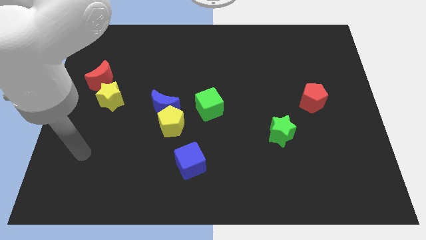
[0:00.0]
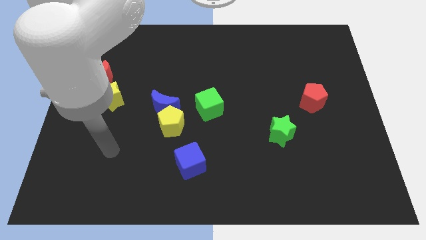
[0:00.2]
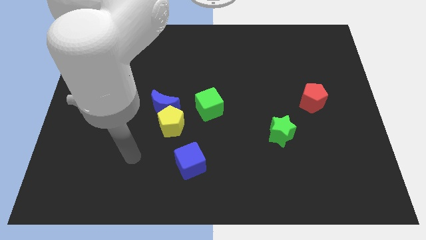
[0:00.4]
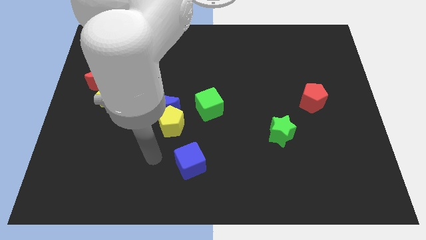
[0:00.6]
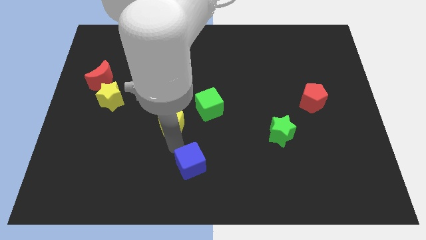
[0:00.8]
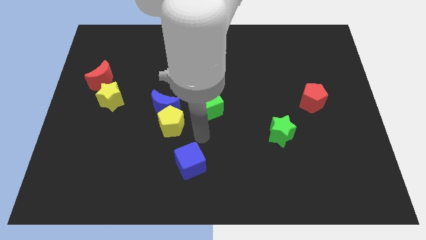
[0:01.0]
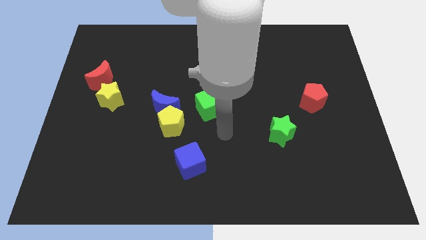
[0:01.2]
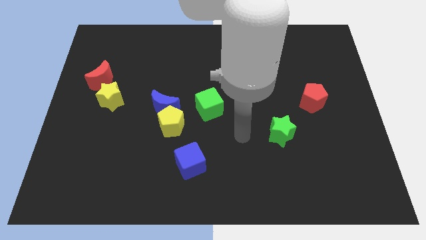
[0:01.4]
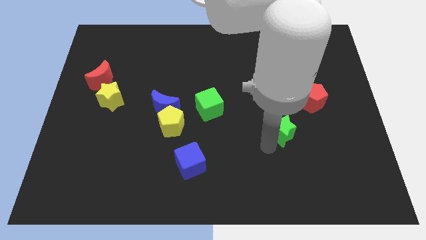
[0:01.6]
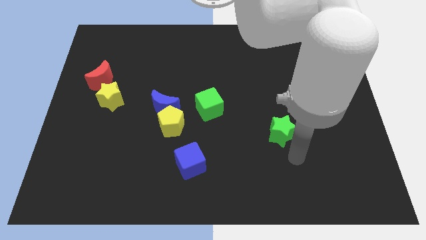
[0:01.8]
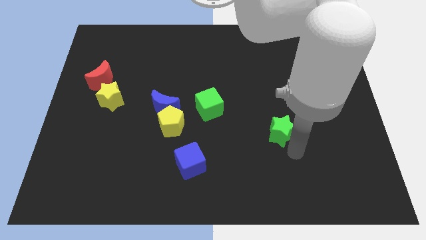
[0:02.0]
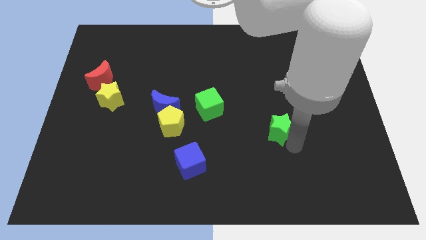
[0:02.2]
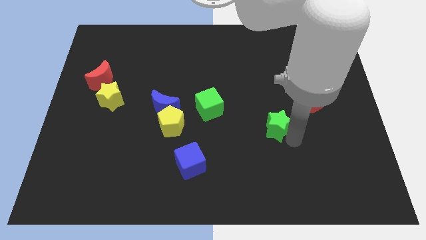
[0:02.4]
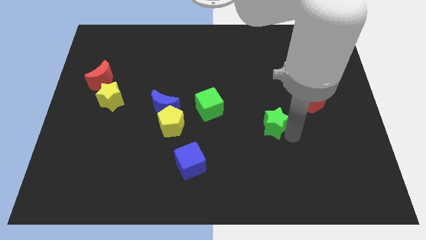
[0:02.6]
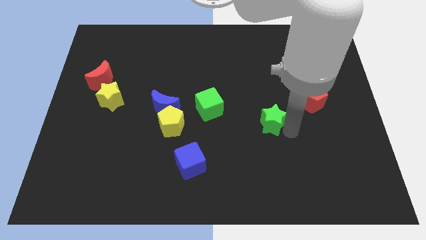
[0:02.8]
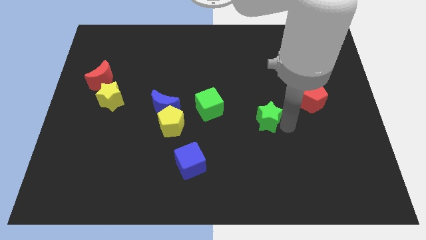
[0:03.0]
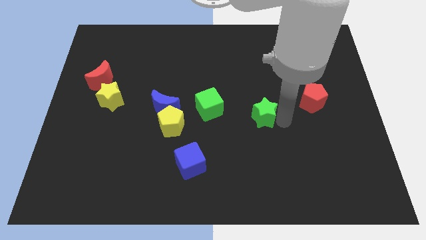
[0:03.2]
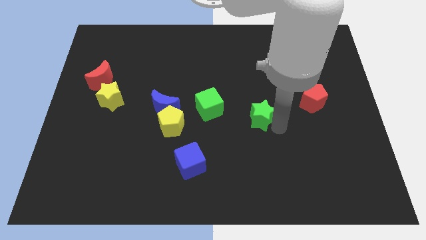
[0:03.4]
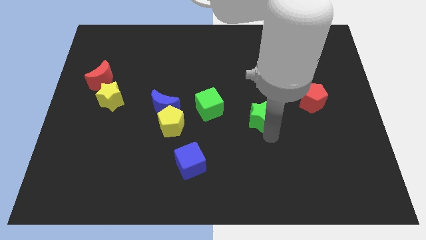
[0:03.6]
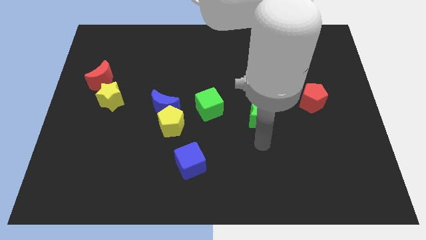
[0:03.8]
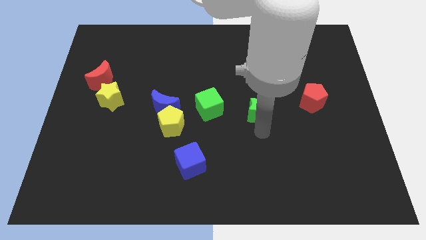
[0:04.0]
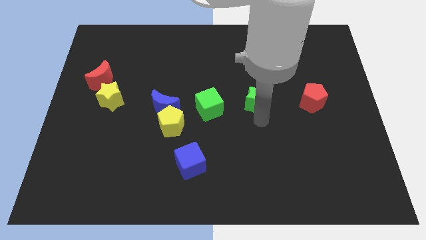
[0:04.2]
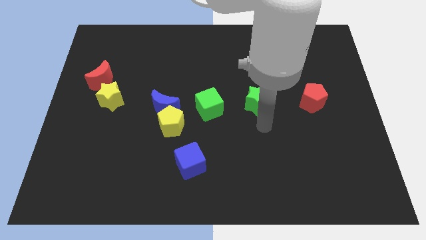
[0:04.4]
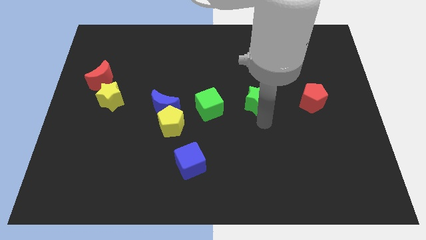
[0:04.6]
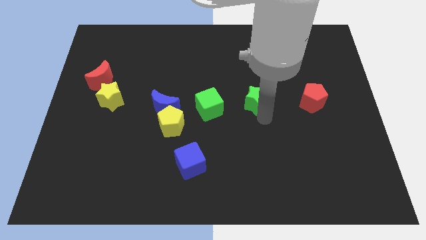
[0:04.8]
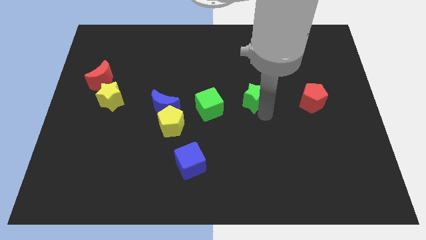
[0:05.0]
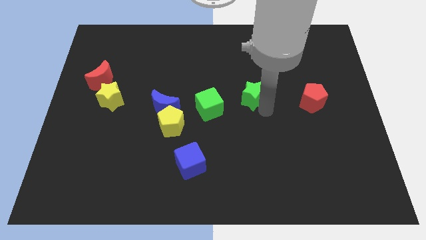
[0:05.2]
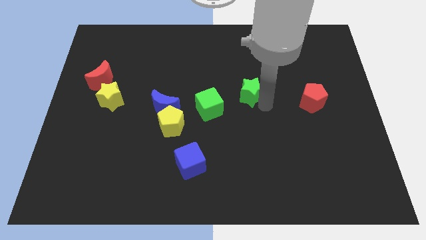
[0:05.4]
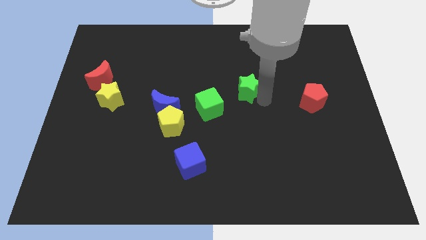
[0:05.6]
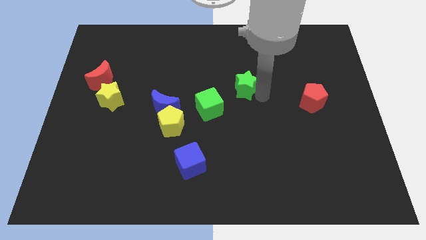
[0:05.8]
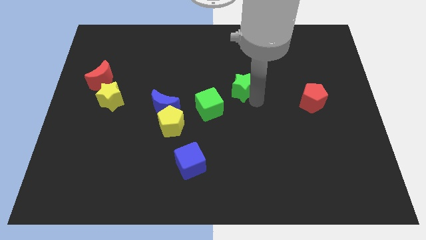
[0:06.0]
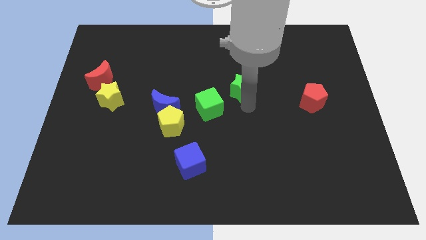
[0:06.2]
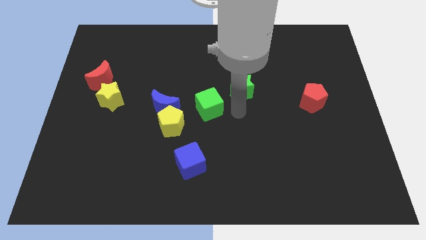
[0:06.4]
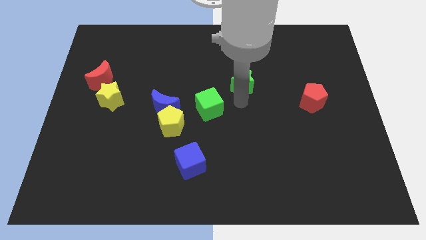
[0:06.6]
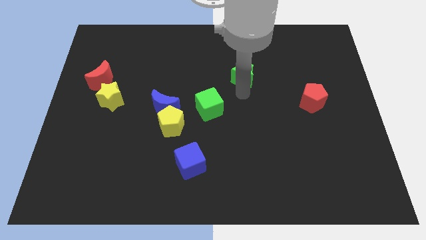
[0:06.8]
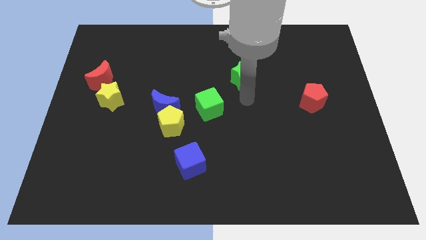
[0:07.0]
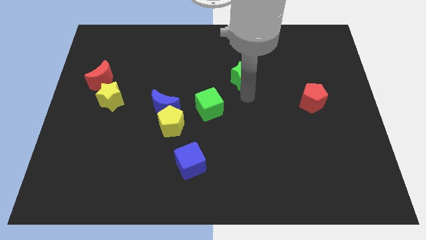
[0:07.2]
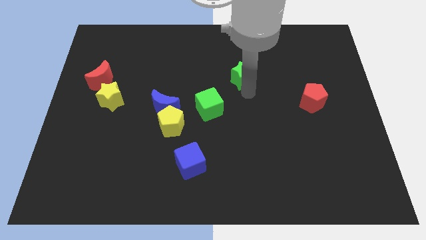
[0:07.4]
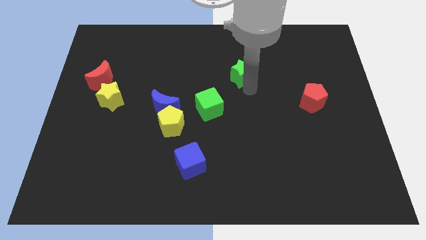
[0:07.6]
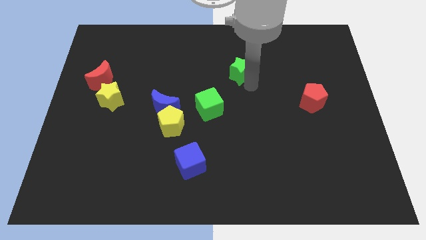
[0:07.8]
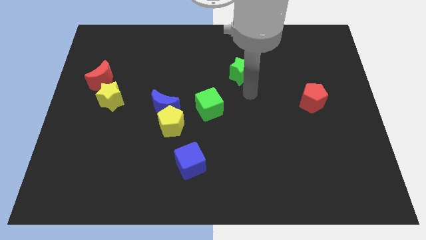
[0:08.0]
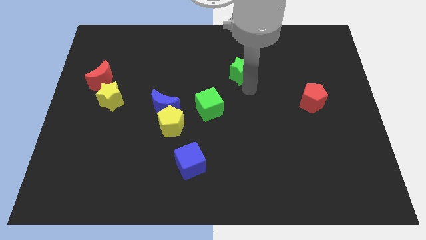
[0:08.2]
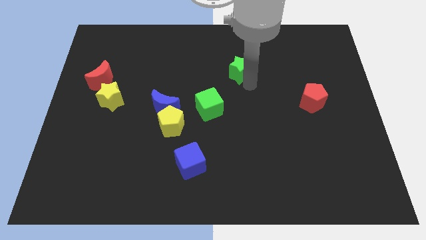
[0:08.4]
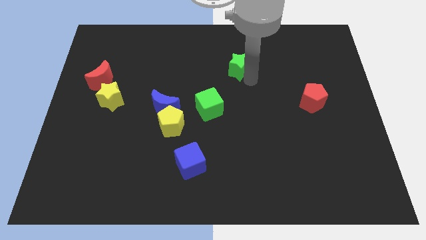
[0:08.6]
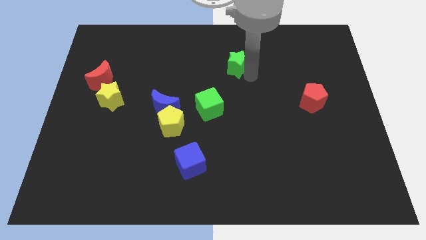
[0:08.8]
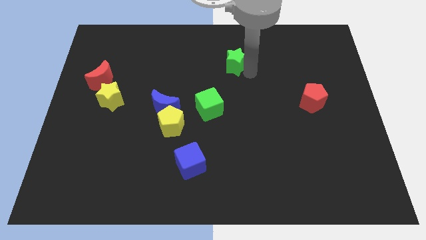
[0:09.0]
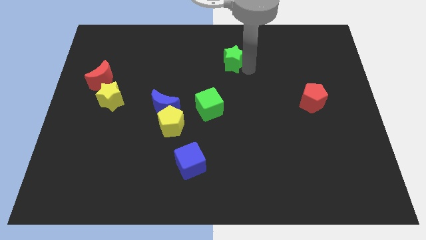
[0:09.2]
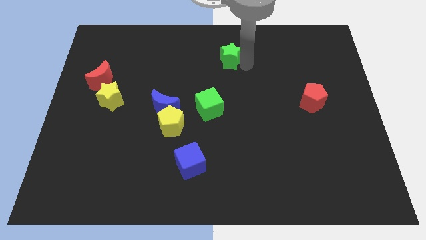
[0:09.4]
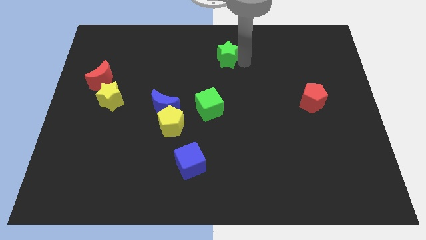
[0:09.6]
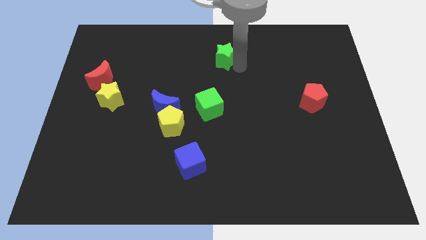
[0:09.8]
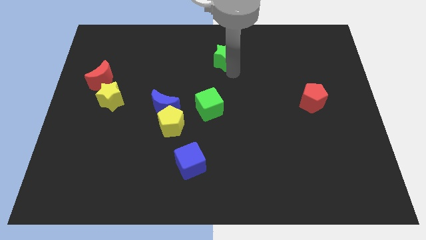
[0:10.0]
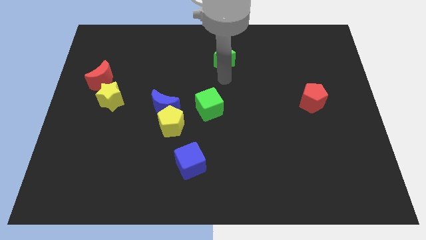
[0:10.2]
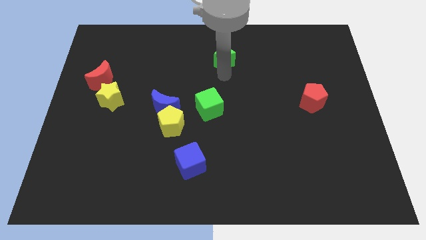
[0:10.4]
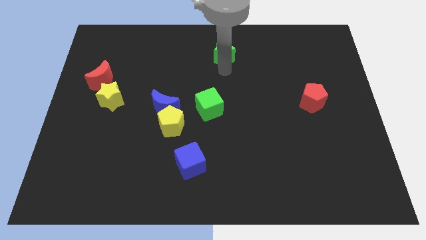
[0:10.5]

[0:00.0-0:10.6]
put the green star to the towards your base
